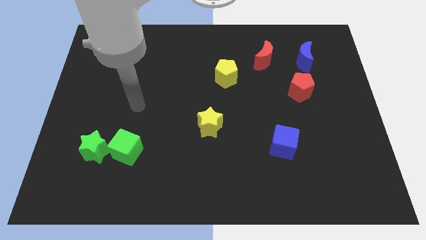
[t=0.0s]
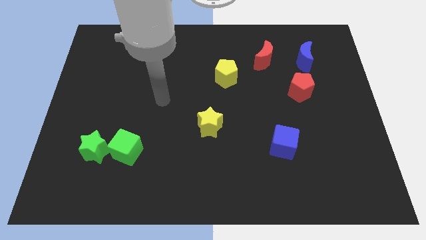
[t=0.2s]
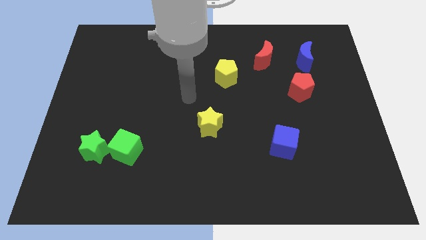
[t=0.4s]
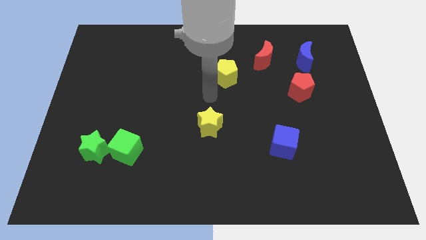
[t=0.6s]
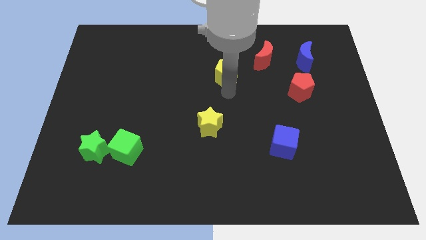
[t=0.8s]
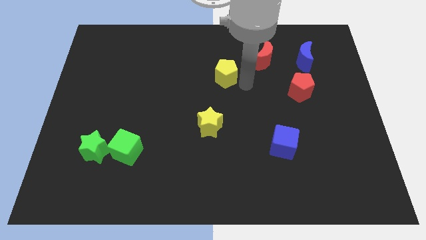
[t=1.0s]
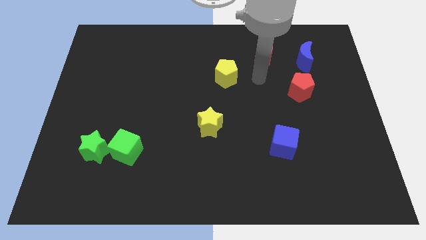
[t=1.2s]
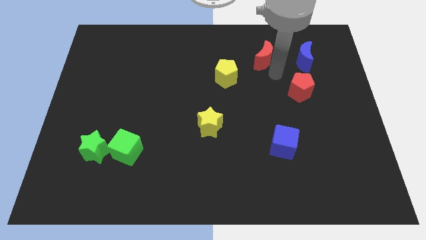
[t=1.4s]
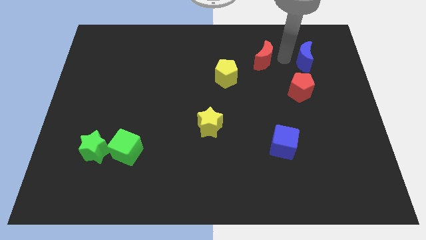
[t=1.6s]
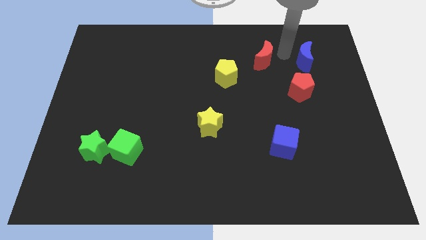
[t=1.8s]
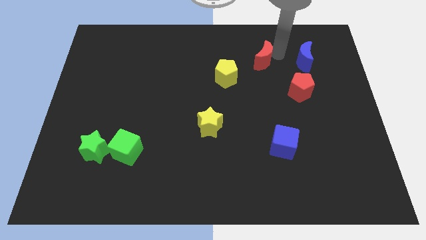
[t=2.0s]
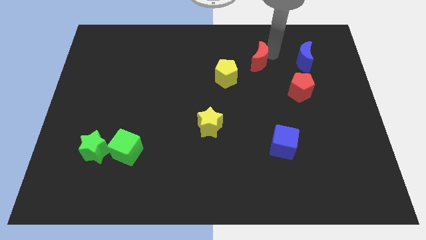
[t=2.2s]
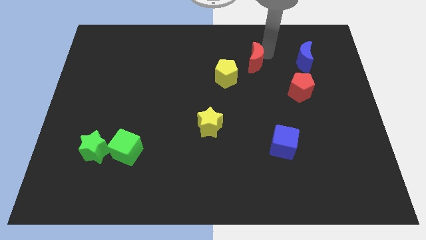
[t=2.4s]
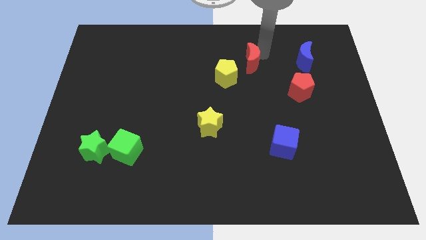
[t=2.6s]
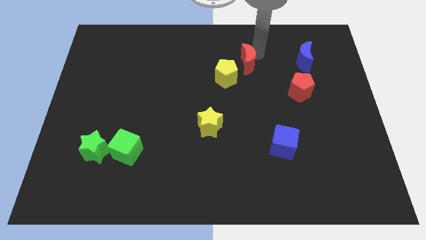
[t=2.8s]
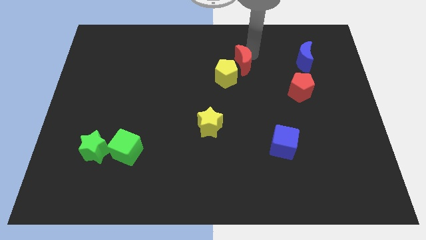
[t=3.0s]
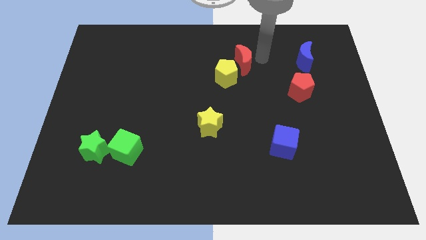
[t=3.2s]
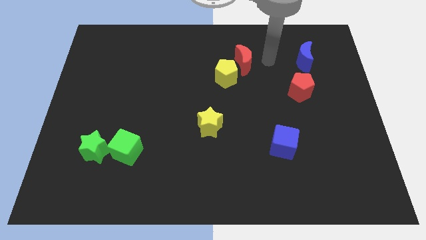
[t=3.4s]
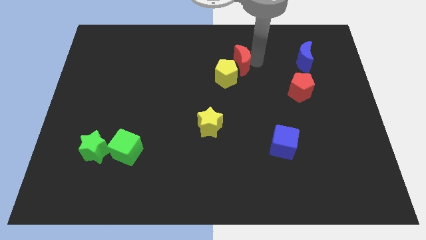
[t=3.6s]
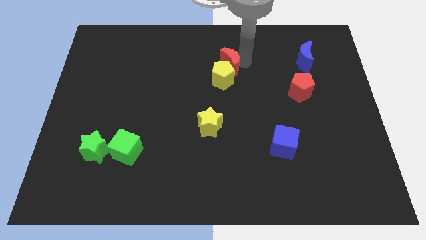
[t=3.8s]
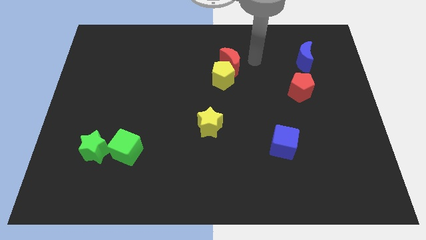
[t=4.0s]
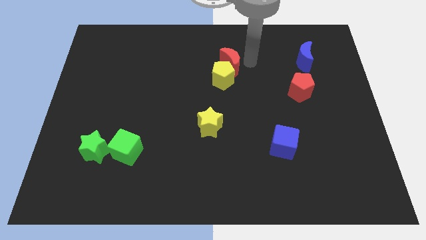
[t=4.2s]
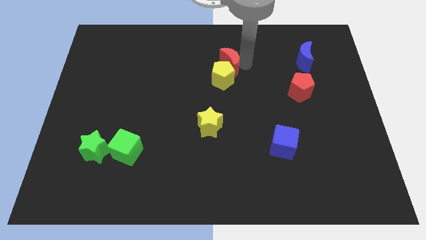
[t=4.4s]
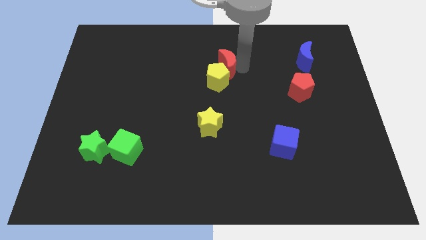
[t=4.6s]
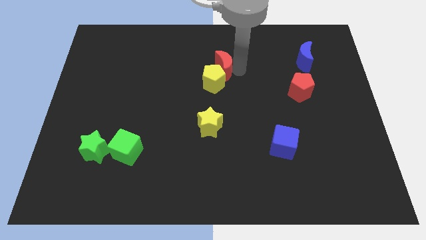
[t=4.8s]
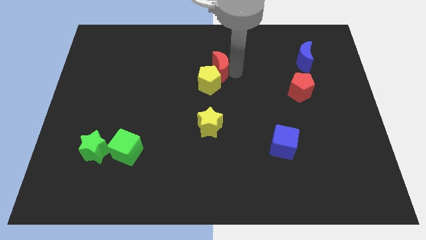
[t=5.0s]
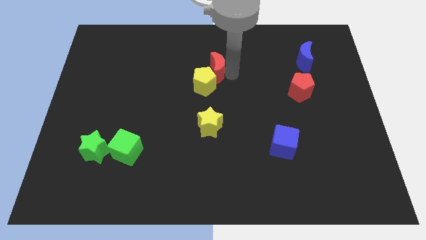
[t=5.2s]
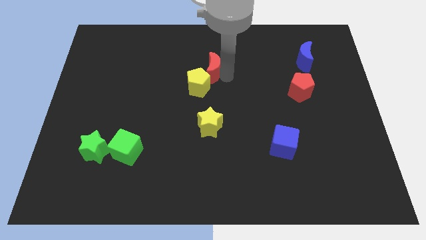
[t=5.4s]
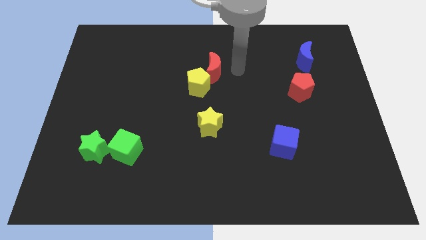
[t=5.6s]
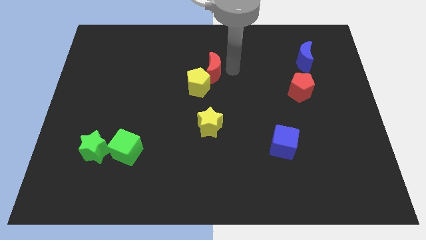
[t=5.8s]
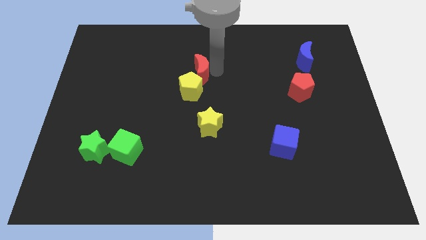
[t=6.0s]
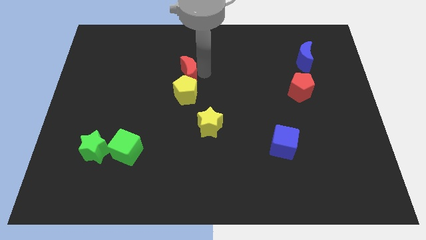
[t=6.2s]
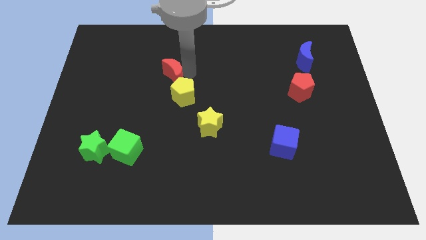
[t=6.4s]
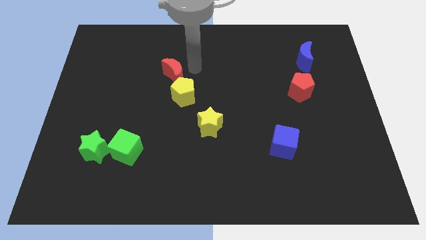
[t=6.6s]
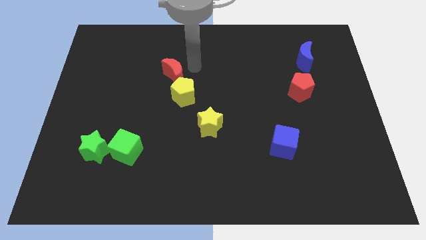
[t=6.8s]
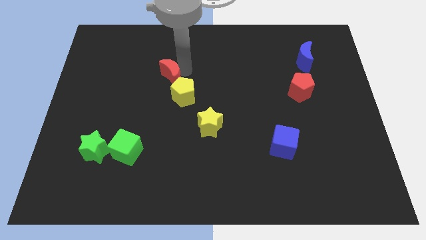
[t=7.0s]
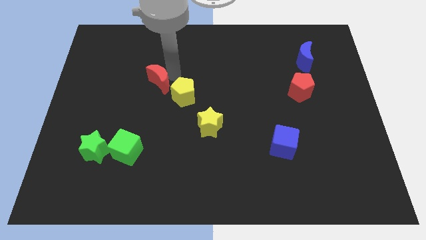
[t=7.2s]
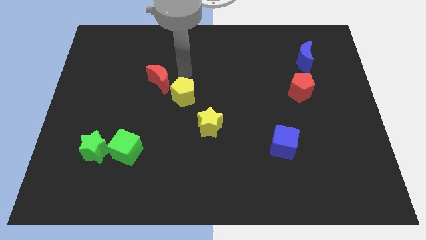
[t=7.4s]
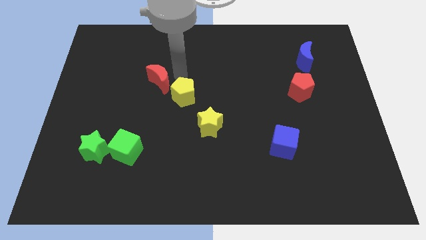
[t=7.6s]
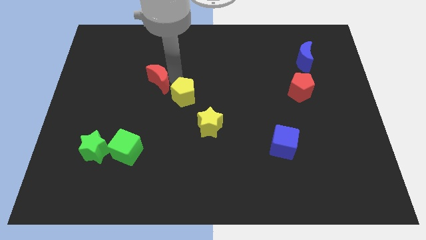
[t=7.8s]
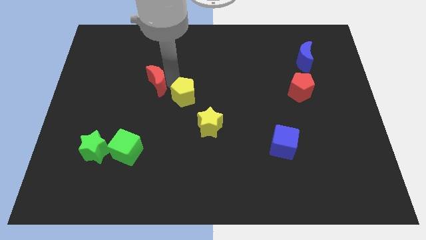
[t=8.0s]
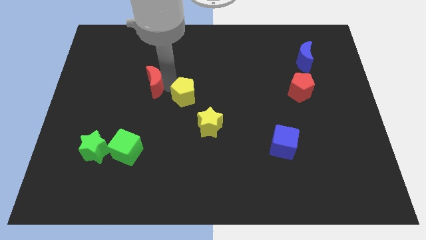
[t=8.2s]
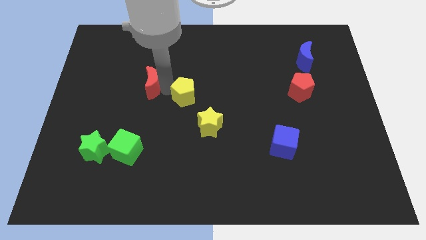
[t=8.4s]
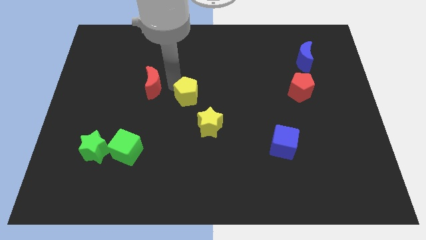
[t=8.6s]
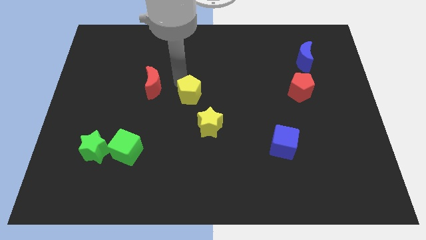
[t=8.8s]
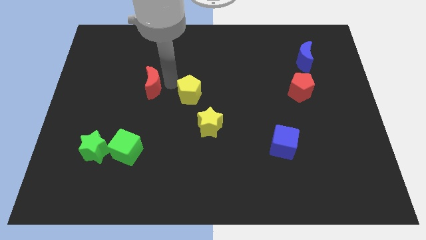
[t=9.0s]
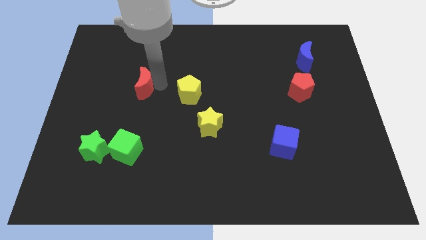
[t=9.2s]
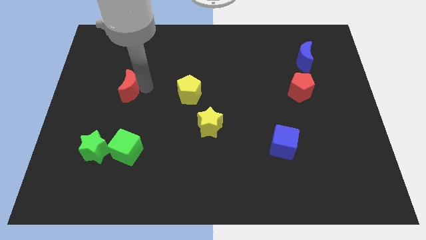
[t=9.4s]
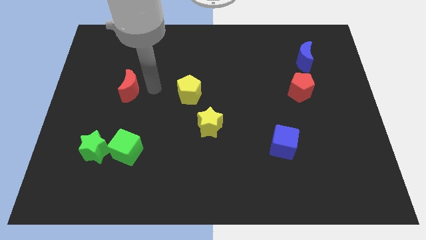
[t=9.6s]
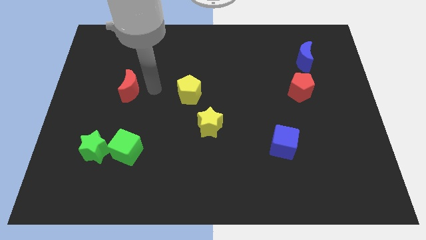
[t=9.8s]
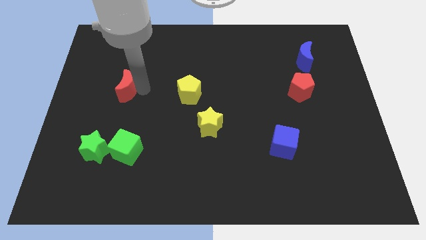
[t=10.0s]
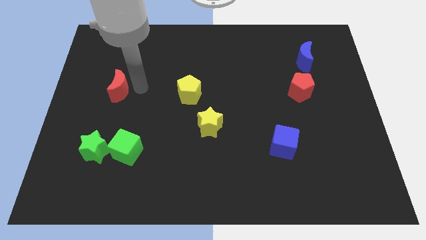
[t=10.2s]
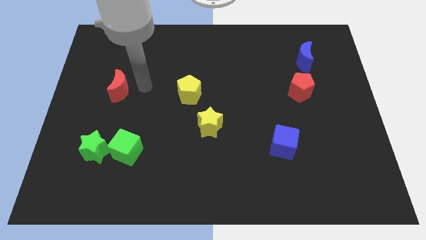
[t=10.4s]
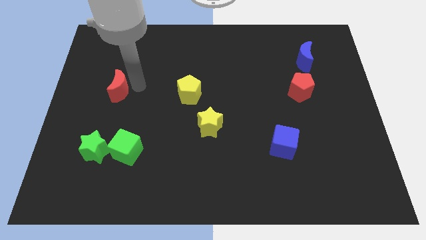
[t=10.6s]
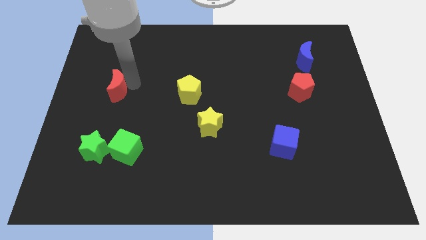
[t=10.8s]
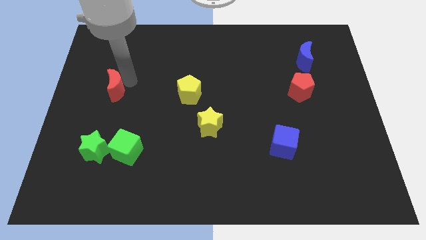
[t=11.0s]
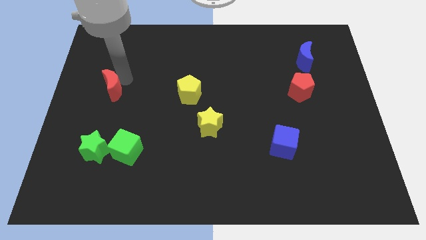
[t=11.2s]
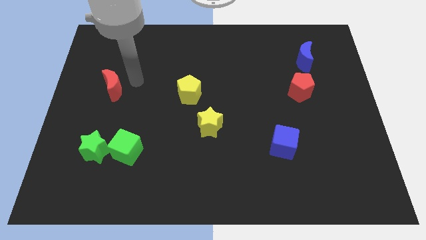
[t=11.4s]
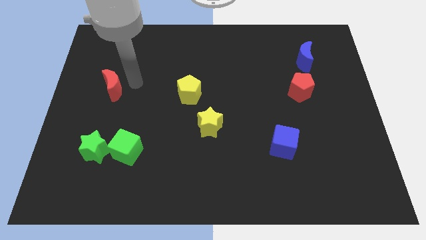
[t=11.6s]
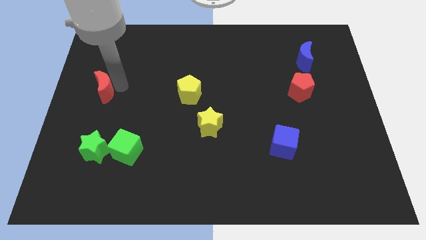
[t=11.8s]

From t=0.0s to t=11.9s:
move the red moon to the left side

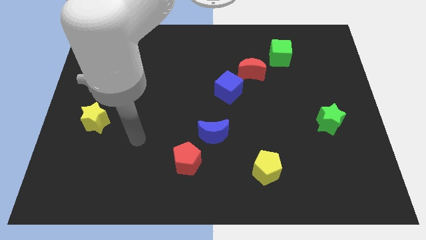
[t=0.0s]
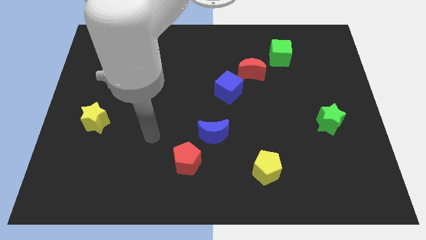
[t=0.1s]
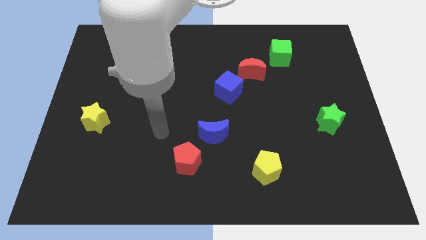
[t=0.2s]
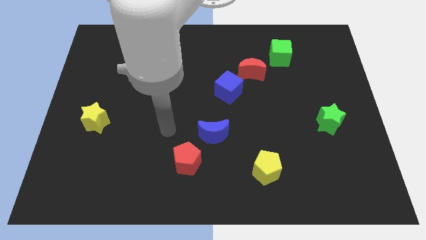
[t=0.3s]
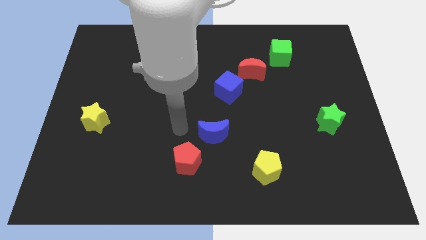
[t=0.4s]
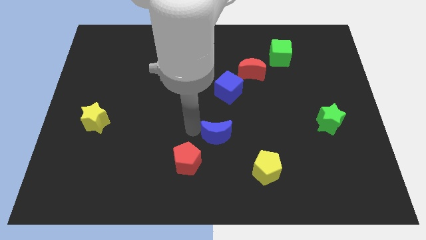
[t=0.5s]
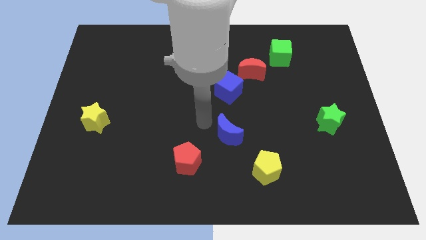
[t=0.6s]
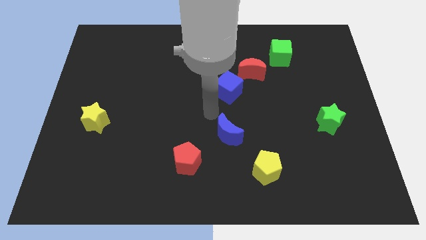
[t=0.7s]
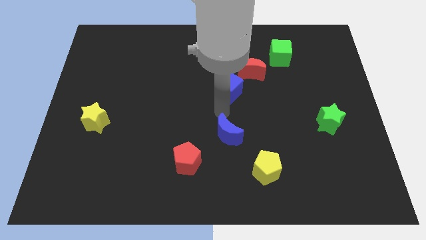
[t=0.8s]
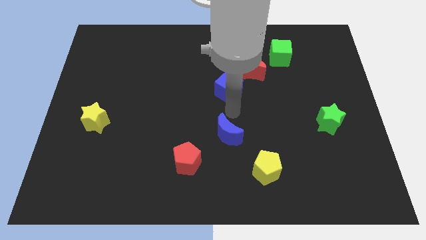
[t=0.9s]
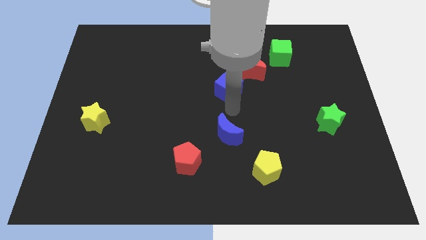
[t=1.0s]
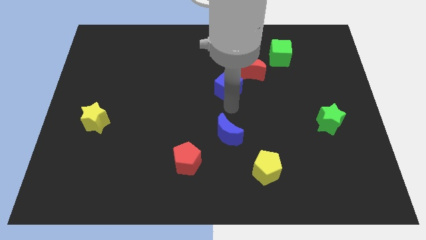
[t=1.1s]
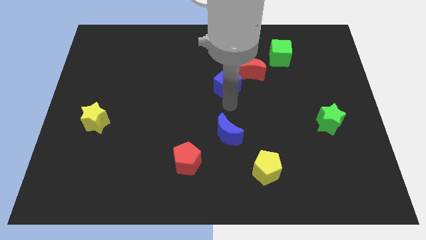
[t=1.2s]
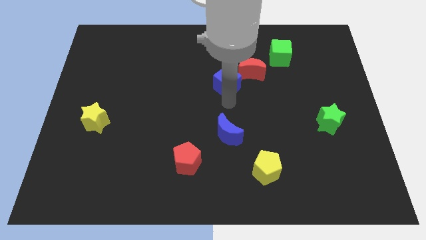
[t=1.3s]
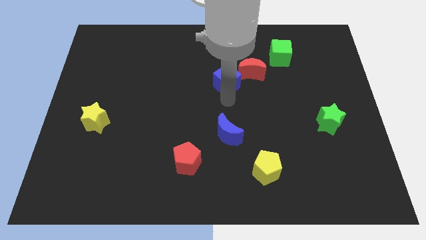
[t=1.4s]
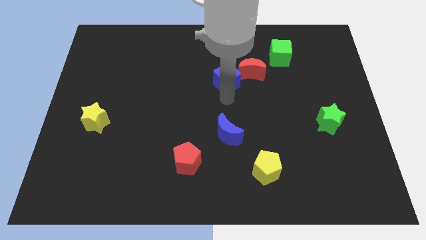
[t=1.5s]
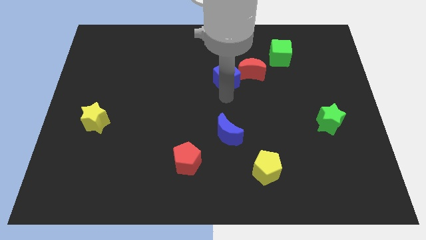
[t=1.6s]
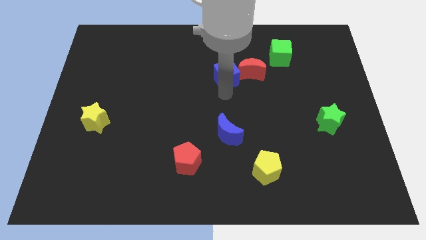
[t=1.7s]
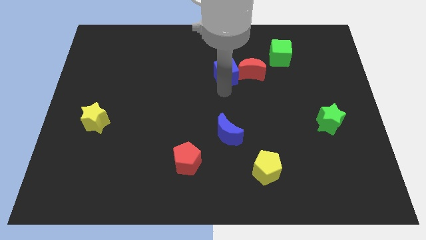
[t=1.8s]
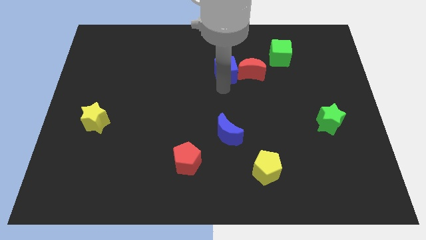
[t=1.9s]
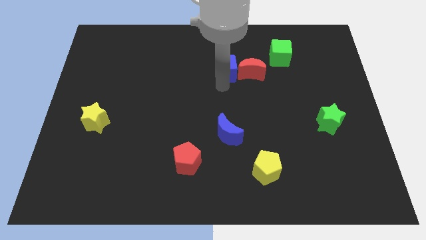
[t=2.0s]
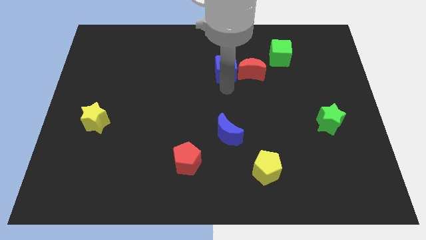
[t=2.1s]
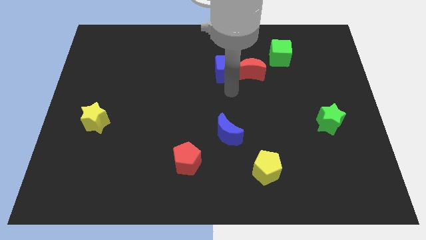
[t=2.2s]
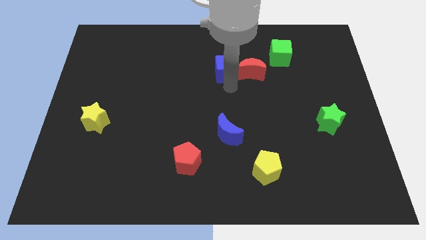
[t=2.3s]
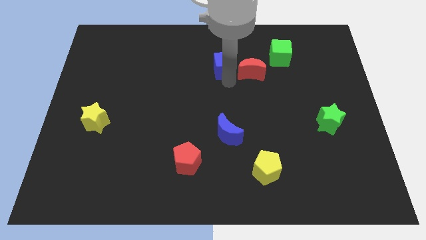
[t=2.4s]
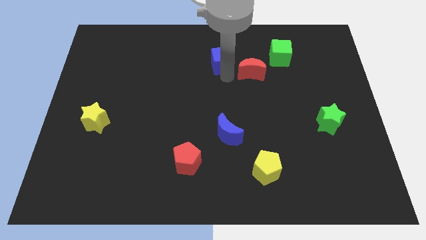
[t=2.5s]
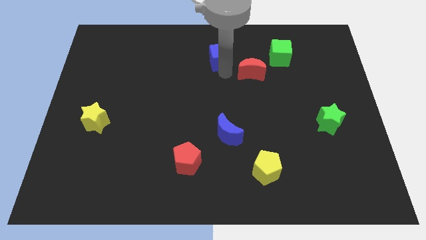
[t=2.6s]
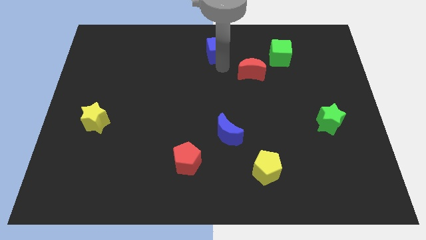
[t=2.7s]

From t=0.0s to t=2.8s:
slide the blue cube to the top
